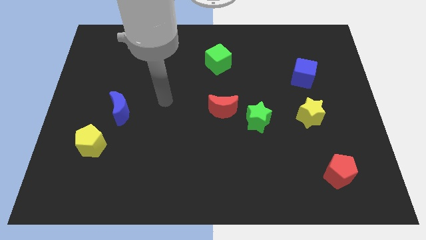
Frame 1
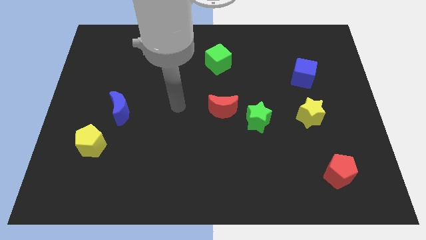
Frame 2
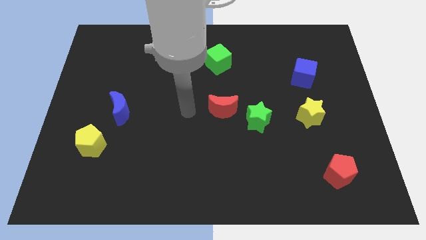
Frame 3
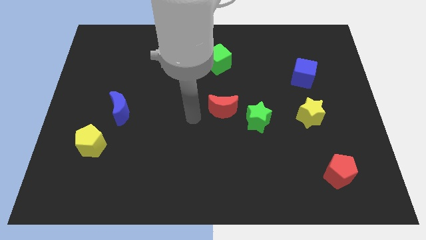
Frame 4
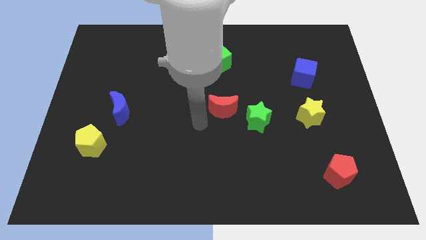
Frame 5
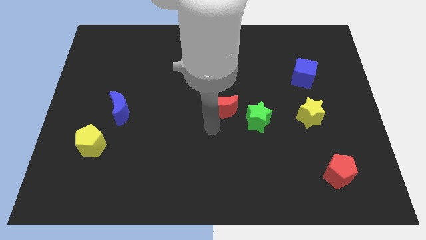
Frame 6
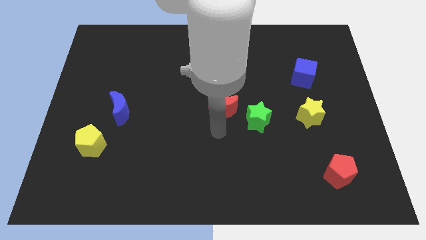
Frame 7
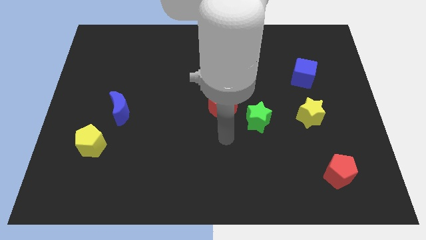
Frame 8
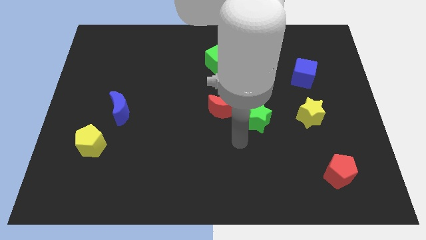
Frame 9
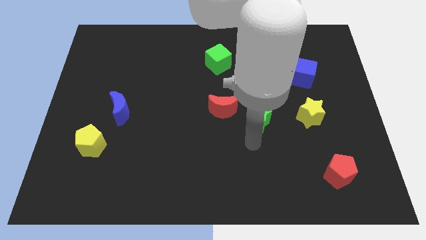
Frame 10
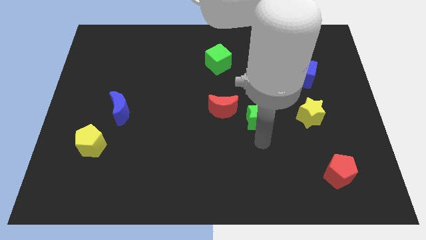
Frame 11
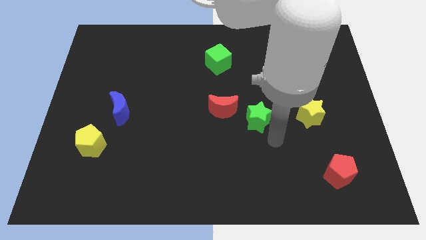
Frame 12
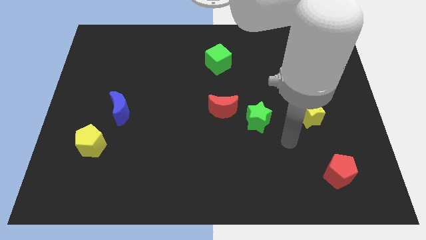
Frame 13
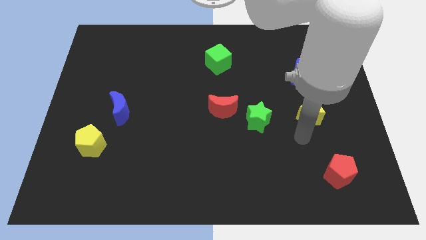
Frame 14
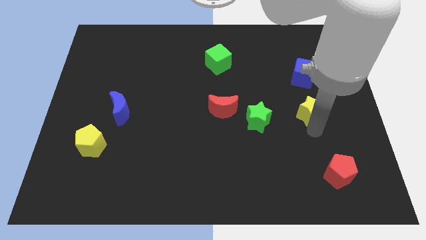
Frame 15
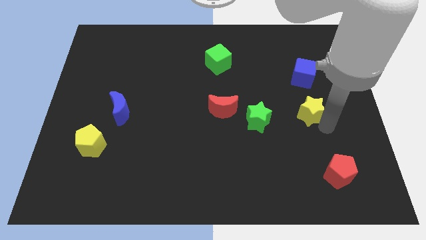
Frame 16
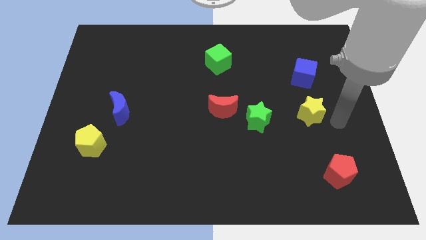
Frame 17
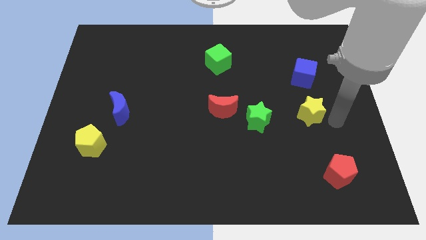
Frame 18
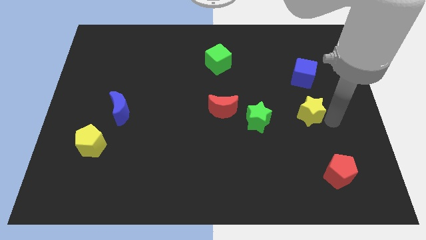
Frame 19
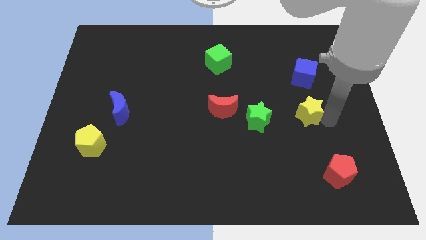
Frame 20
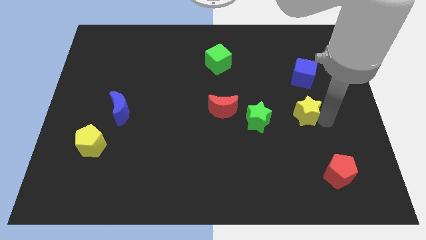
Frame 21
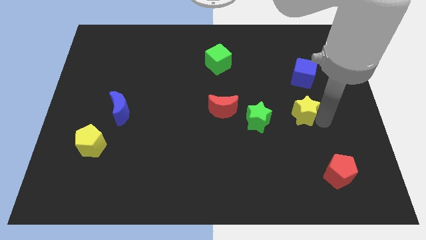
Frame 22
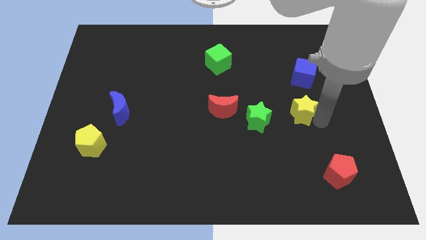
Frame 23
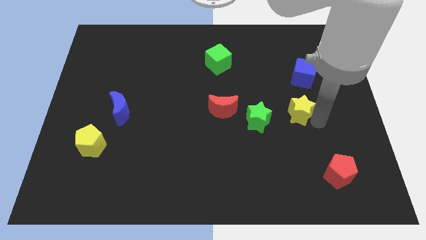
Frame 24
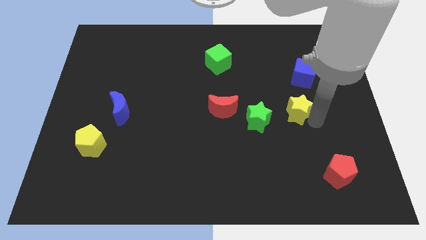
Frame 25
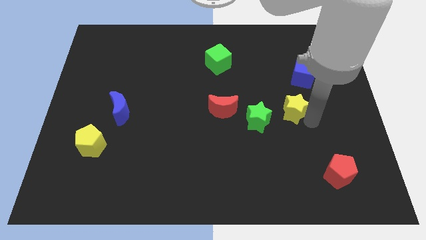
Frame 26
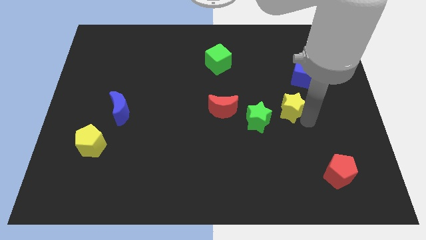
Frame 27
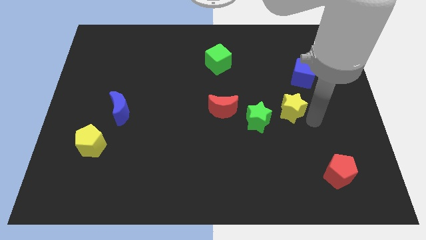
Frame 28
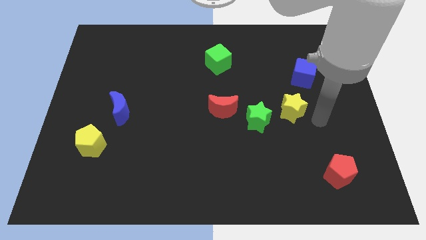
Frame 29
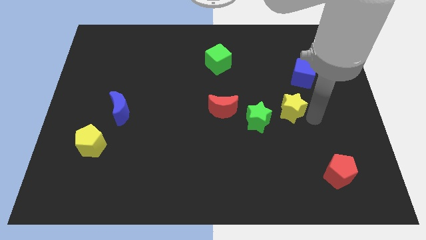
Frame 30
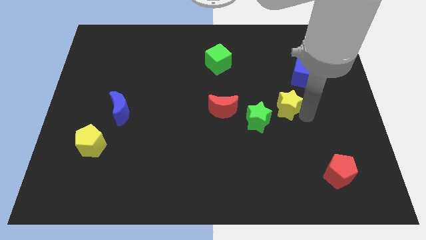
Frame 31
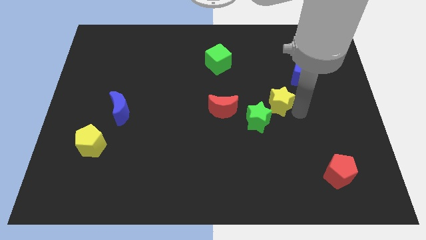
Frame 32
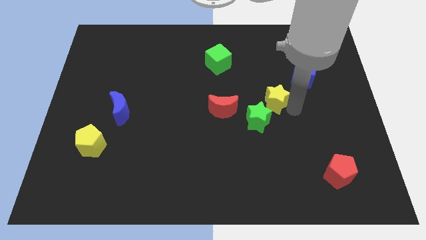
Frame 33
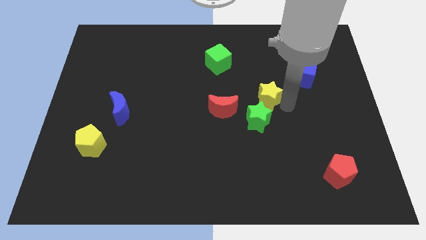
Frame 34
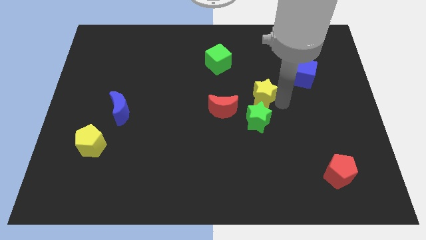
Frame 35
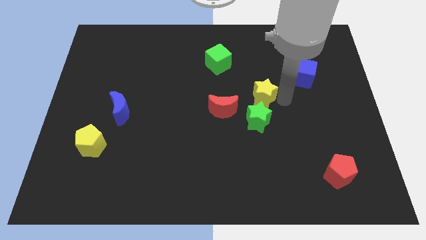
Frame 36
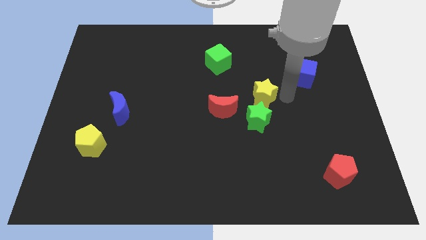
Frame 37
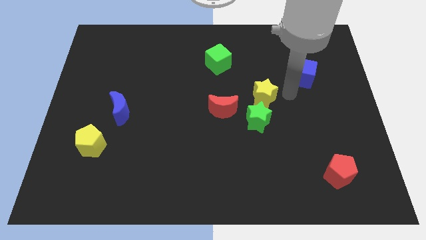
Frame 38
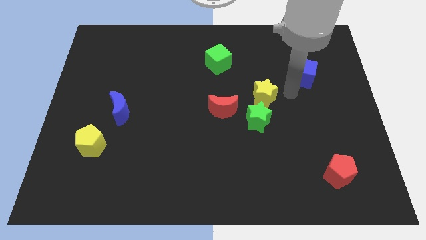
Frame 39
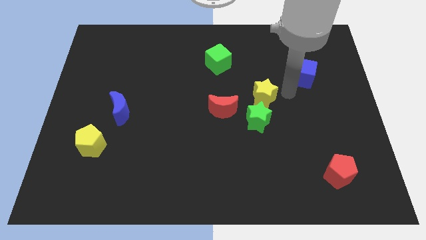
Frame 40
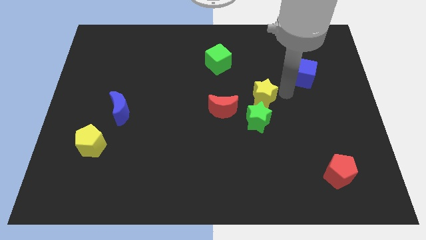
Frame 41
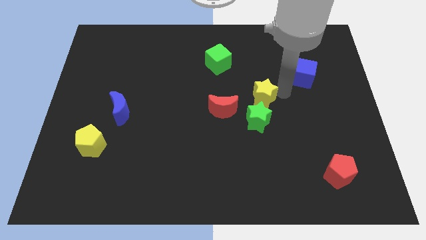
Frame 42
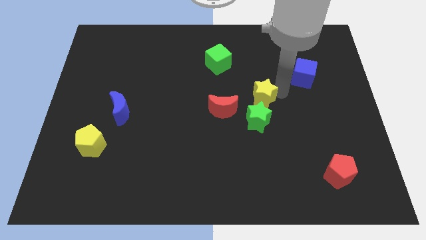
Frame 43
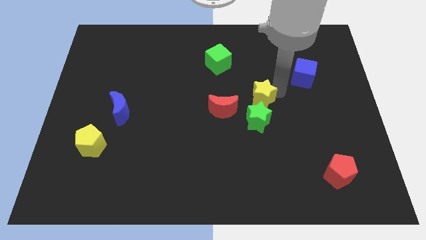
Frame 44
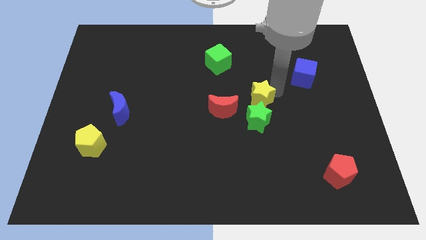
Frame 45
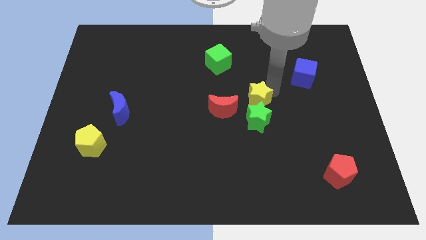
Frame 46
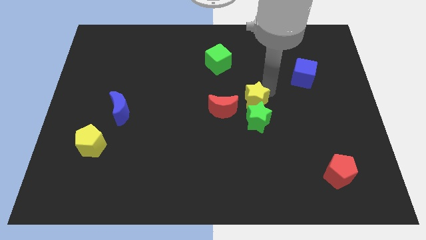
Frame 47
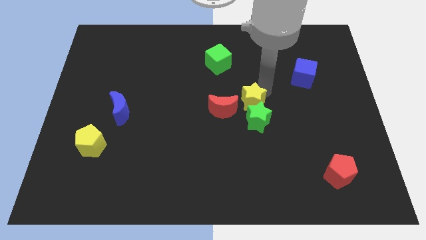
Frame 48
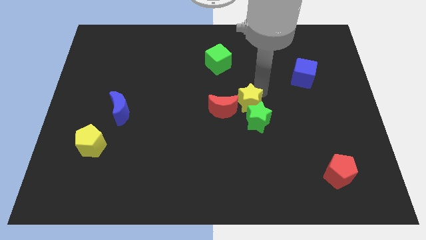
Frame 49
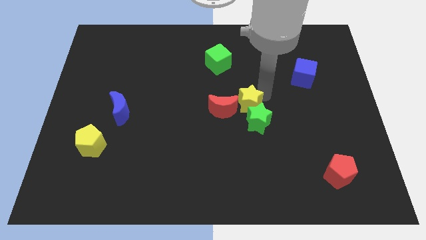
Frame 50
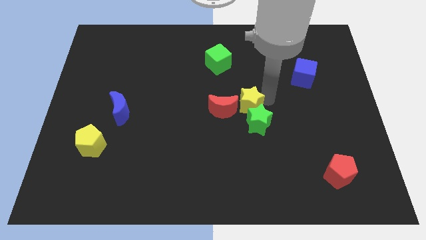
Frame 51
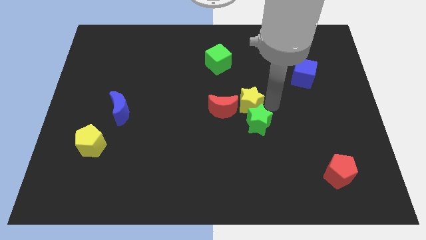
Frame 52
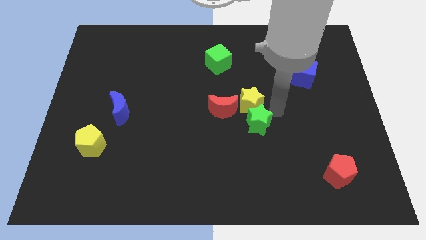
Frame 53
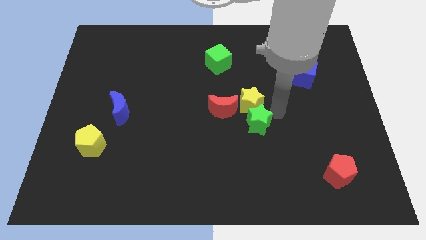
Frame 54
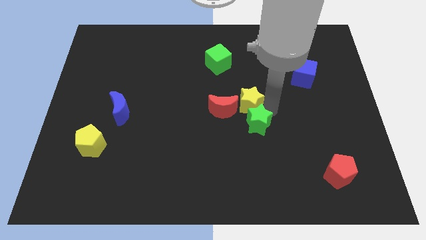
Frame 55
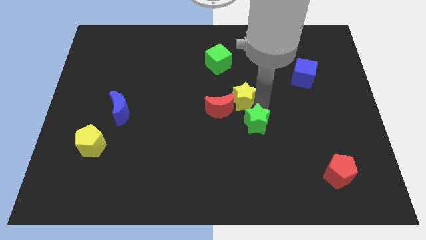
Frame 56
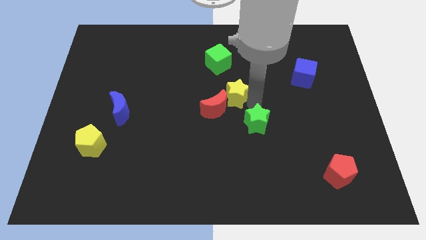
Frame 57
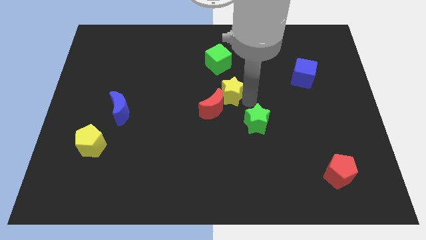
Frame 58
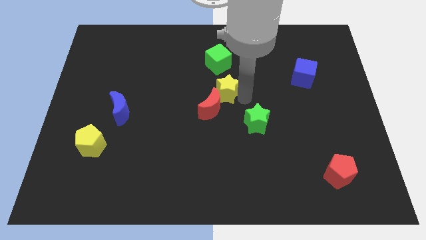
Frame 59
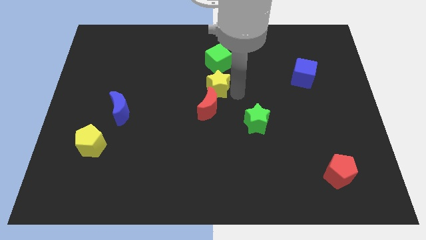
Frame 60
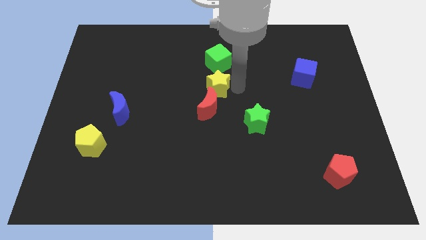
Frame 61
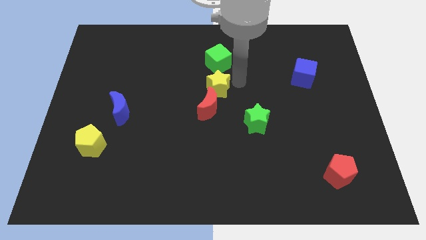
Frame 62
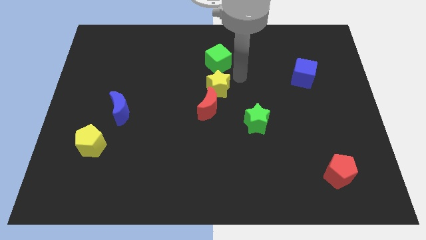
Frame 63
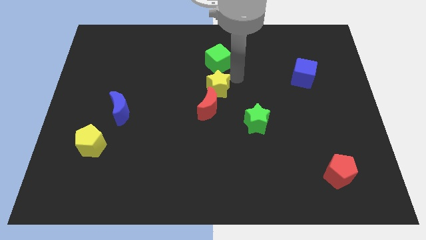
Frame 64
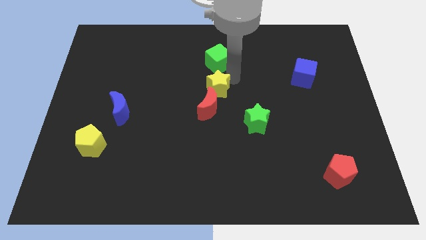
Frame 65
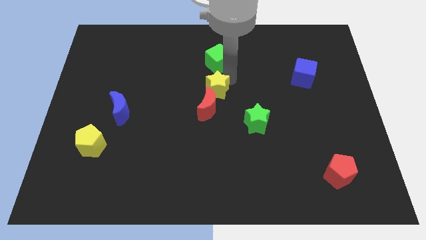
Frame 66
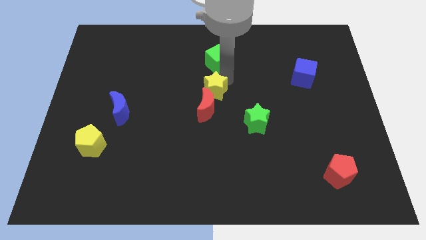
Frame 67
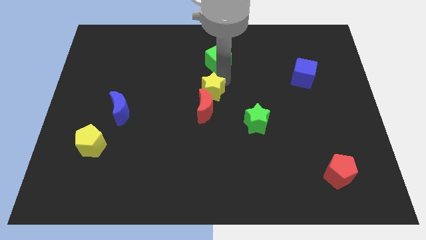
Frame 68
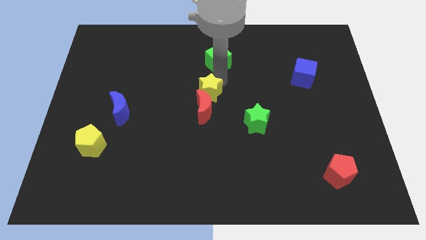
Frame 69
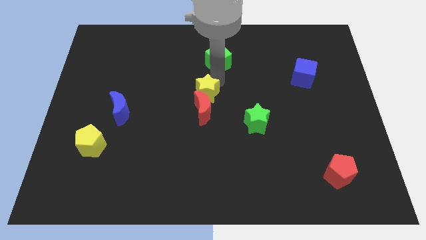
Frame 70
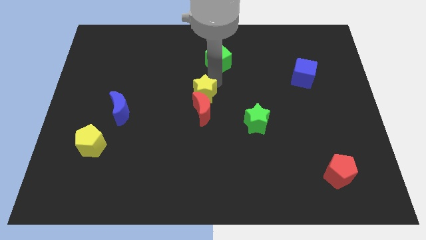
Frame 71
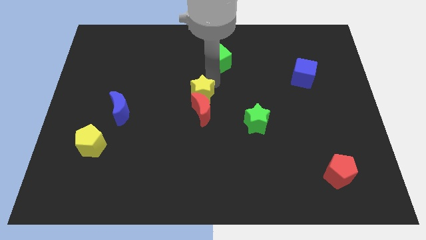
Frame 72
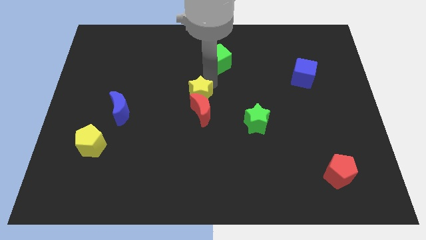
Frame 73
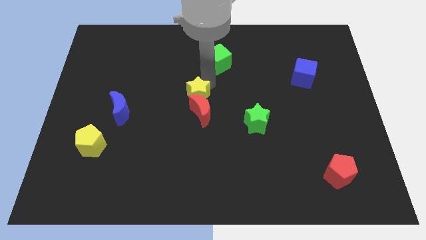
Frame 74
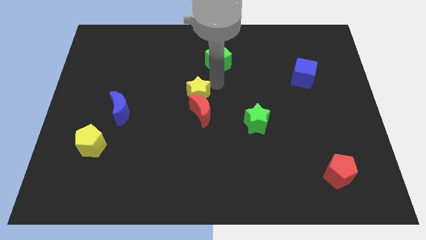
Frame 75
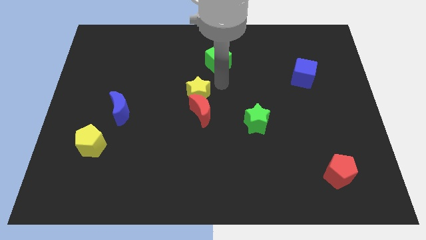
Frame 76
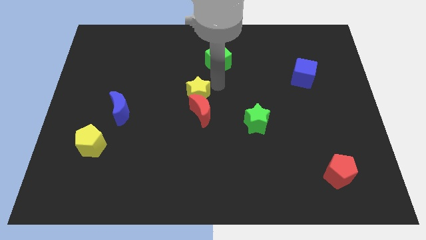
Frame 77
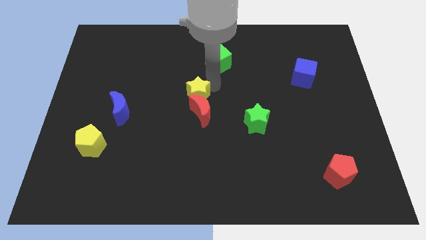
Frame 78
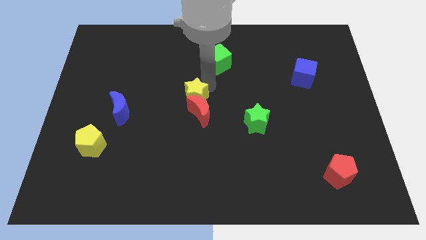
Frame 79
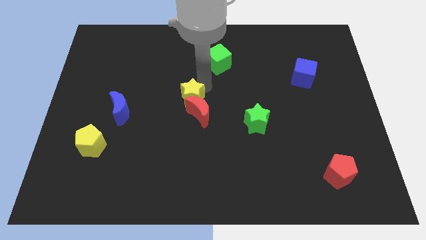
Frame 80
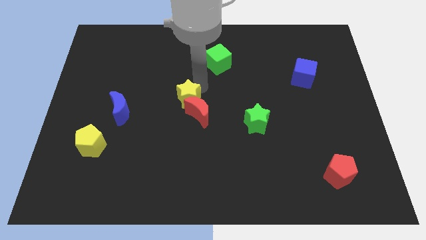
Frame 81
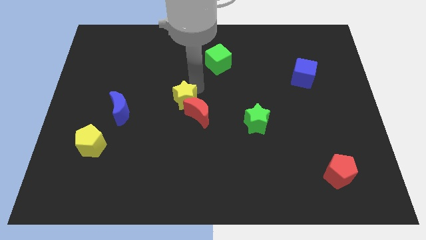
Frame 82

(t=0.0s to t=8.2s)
push the yellow star left of the red moon
